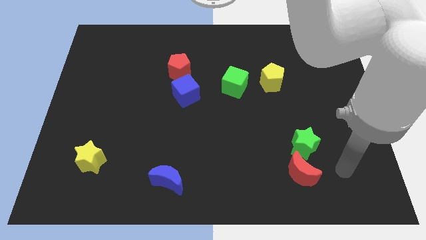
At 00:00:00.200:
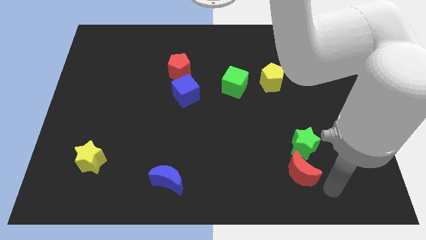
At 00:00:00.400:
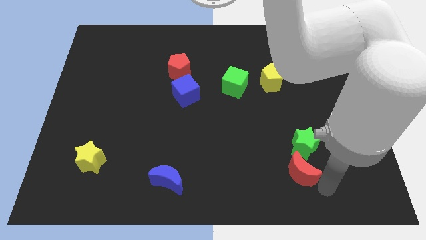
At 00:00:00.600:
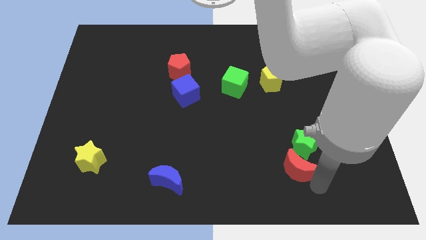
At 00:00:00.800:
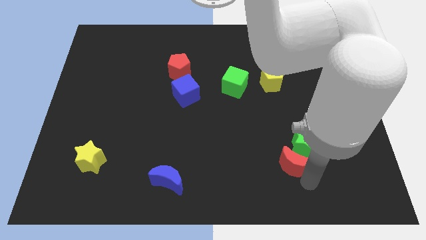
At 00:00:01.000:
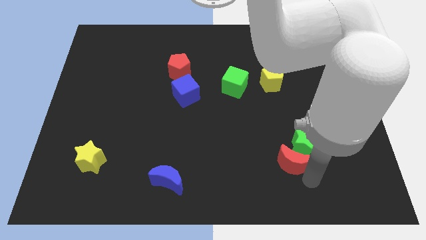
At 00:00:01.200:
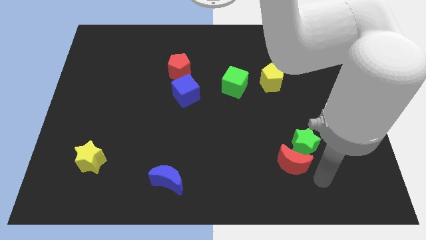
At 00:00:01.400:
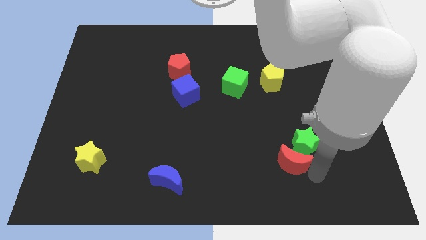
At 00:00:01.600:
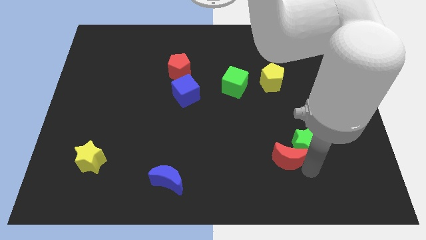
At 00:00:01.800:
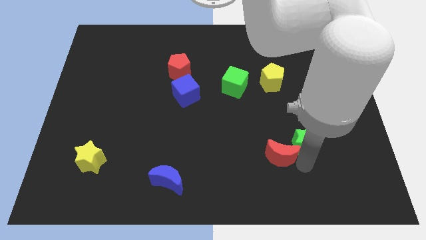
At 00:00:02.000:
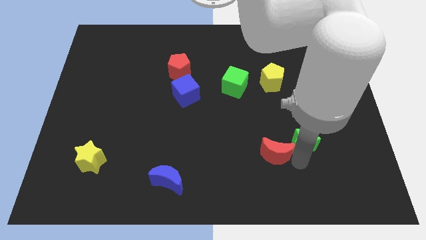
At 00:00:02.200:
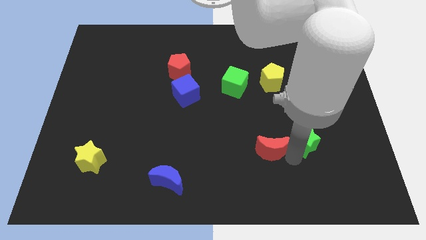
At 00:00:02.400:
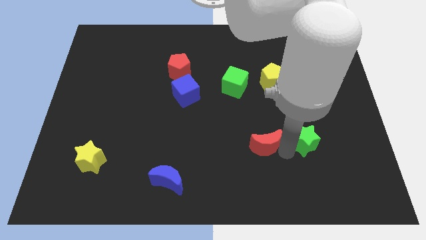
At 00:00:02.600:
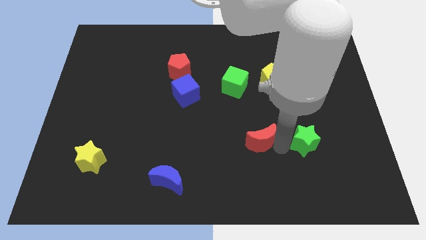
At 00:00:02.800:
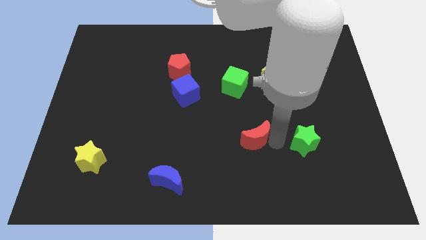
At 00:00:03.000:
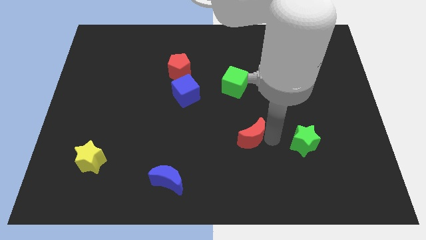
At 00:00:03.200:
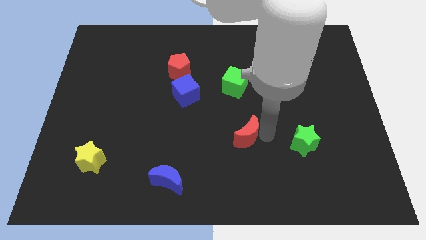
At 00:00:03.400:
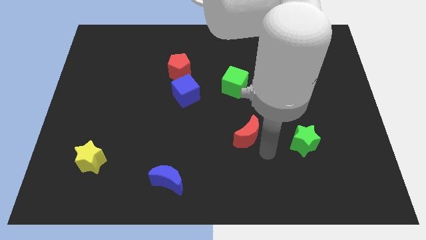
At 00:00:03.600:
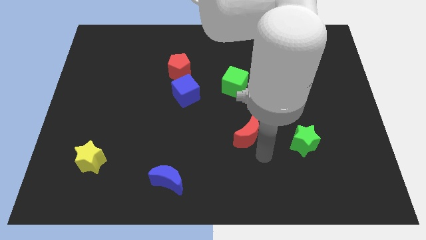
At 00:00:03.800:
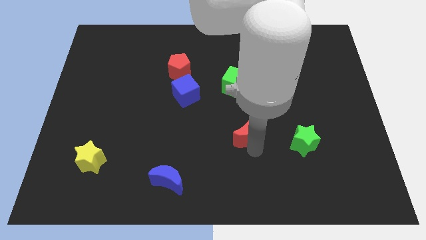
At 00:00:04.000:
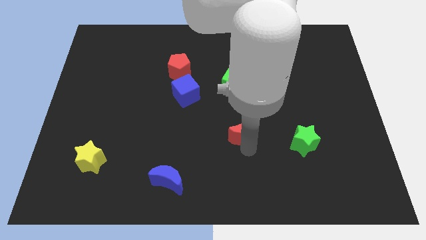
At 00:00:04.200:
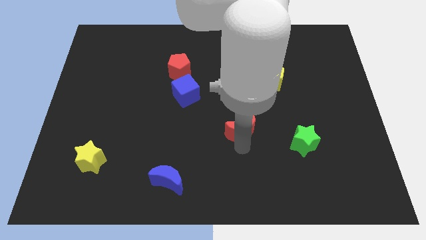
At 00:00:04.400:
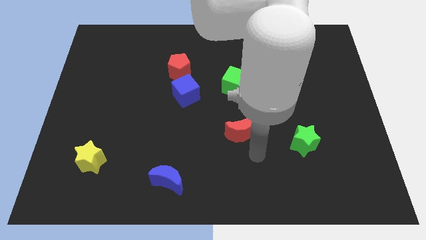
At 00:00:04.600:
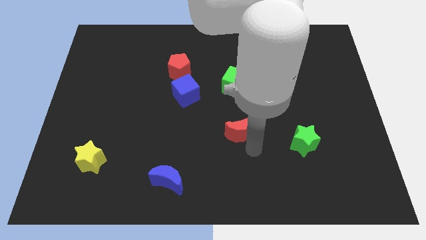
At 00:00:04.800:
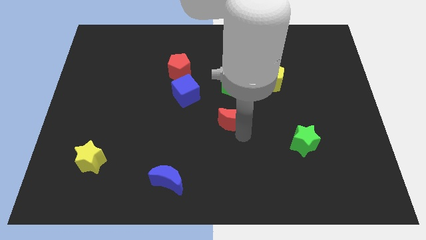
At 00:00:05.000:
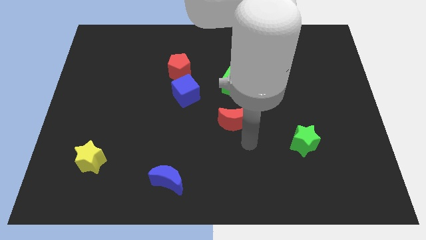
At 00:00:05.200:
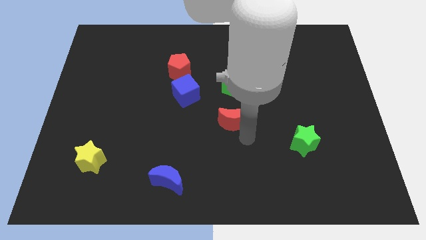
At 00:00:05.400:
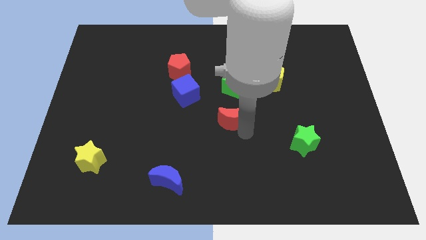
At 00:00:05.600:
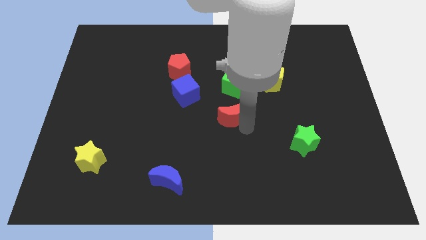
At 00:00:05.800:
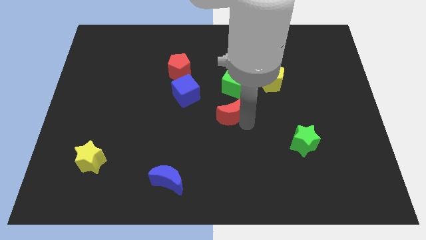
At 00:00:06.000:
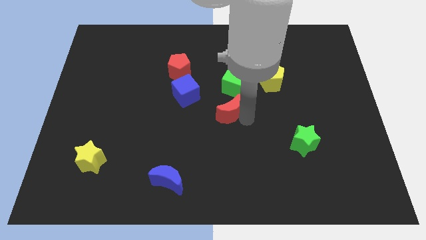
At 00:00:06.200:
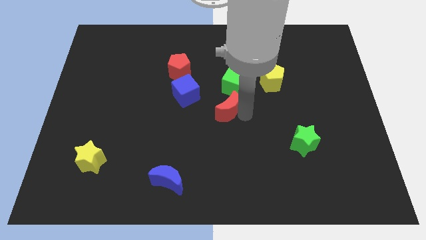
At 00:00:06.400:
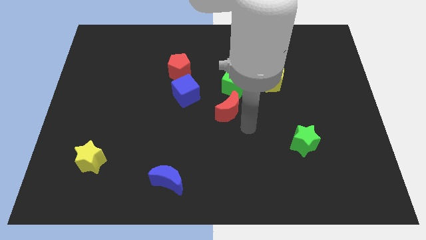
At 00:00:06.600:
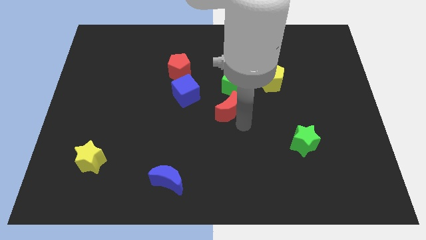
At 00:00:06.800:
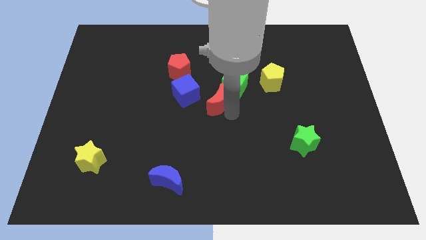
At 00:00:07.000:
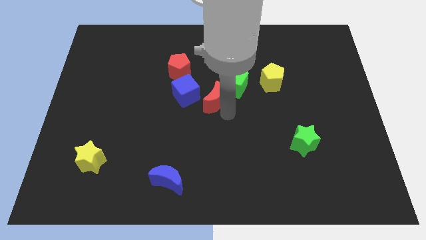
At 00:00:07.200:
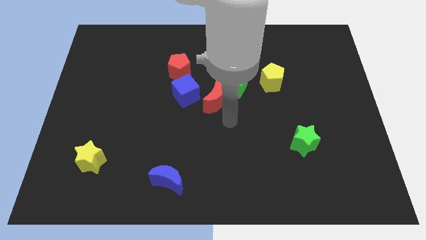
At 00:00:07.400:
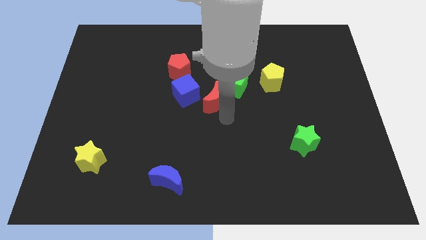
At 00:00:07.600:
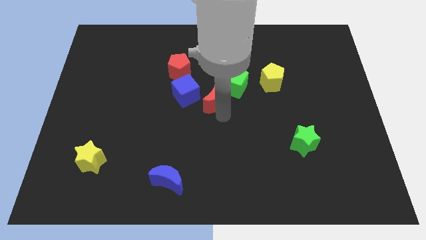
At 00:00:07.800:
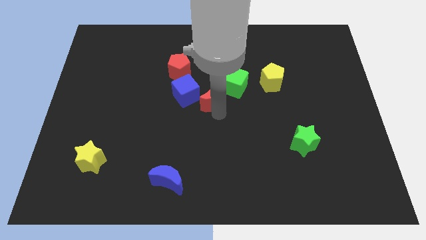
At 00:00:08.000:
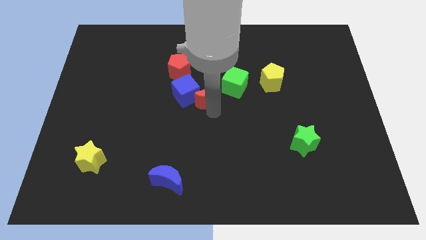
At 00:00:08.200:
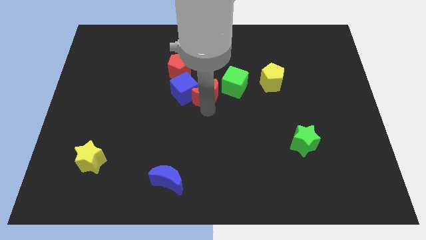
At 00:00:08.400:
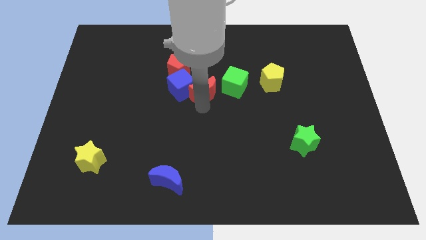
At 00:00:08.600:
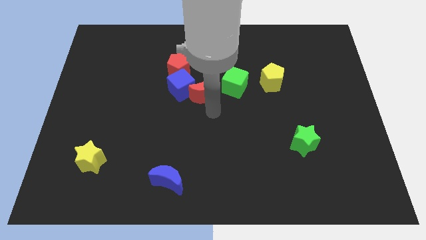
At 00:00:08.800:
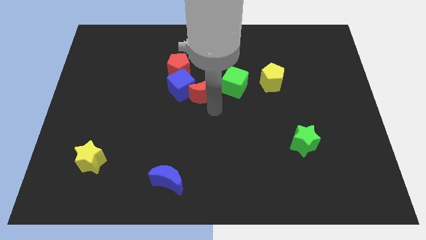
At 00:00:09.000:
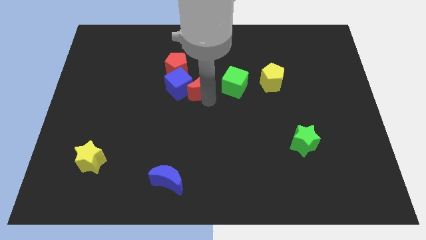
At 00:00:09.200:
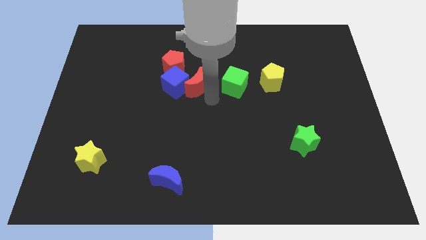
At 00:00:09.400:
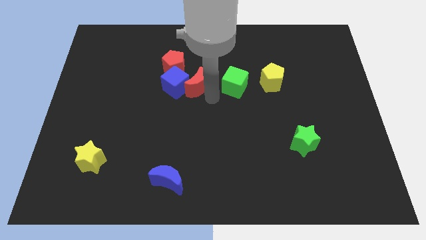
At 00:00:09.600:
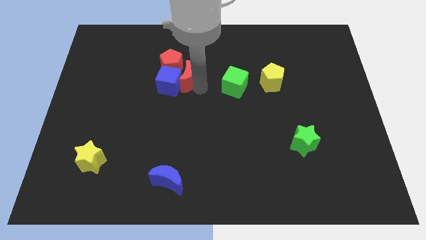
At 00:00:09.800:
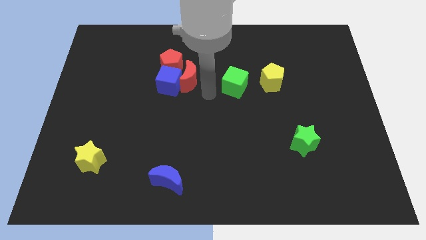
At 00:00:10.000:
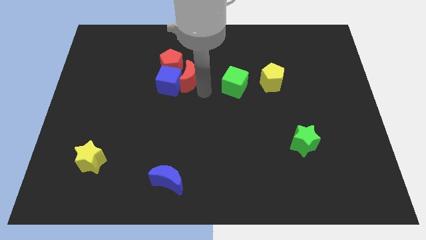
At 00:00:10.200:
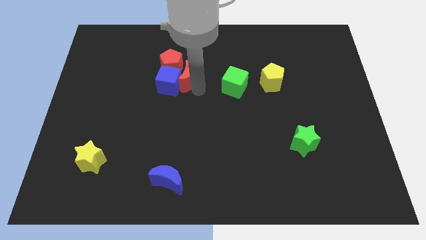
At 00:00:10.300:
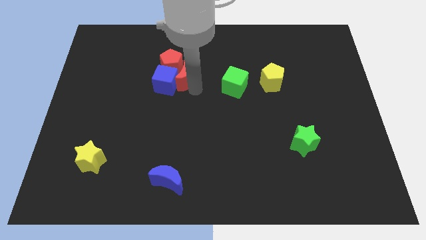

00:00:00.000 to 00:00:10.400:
move the red moon next to the red pentagon

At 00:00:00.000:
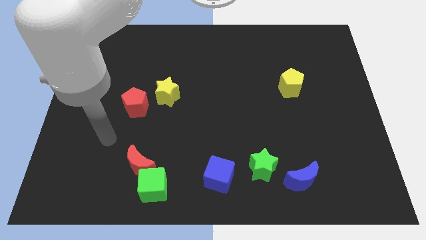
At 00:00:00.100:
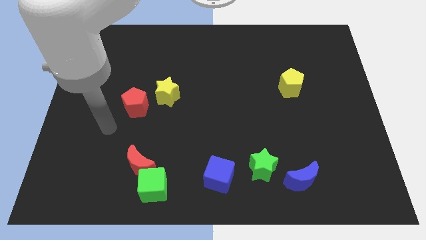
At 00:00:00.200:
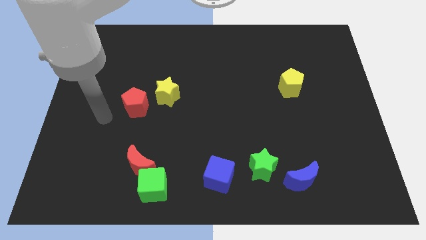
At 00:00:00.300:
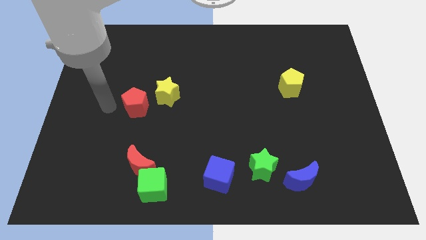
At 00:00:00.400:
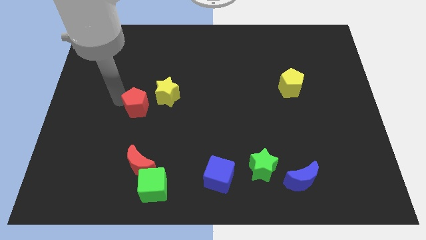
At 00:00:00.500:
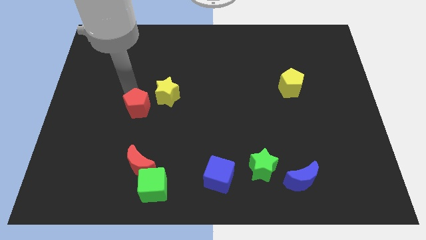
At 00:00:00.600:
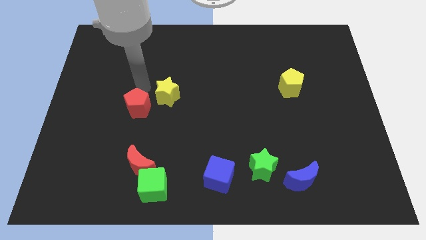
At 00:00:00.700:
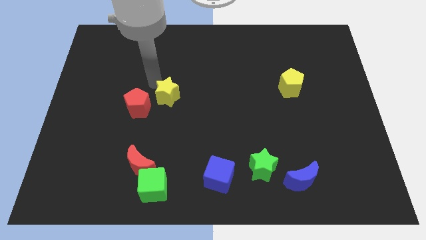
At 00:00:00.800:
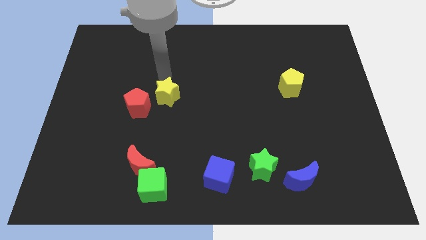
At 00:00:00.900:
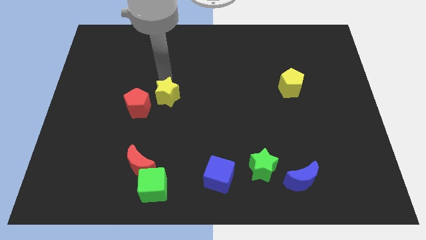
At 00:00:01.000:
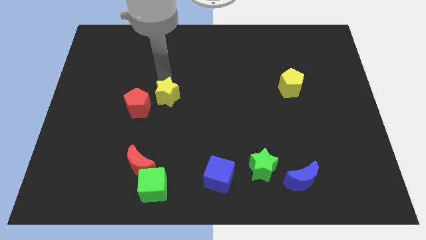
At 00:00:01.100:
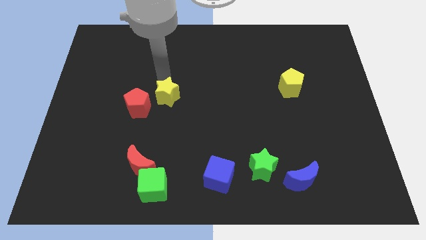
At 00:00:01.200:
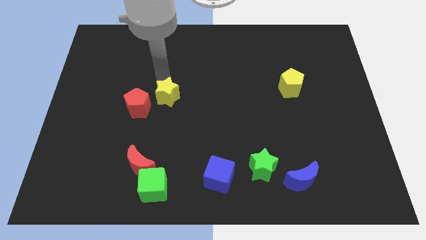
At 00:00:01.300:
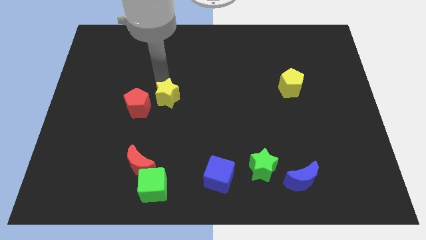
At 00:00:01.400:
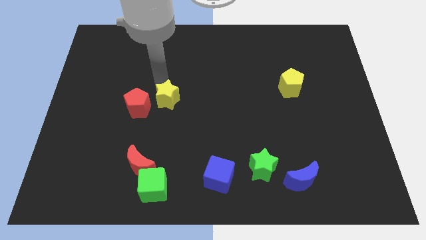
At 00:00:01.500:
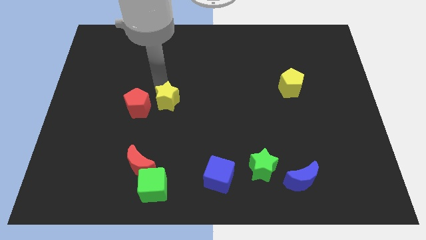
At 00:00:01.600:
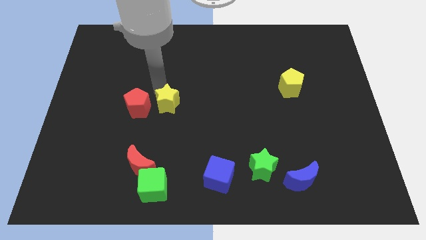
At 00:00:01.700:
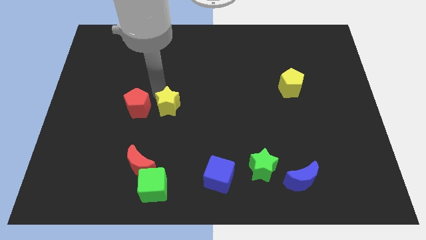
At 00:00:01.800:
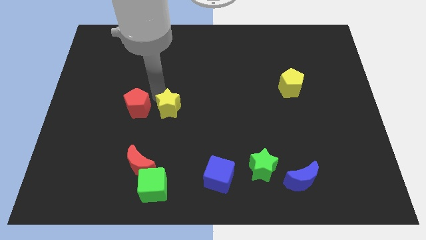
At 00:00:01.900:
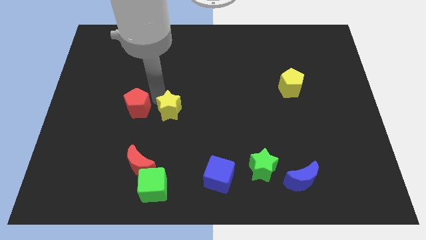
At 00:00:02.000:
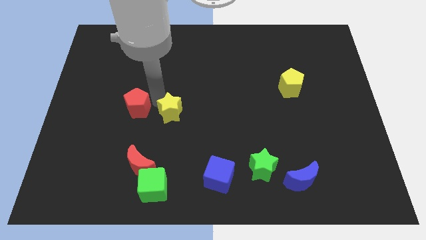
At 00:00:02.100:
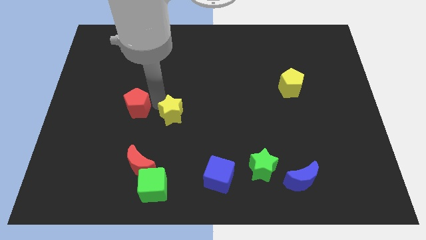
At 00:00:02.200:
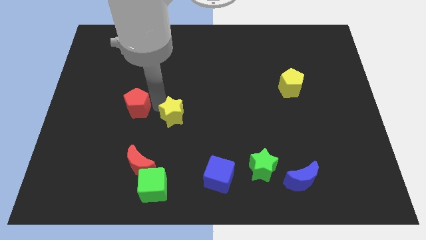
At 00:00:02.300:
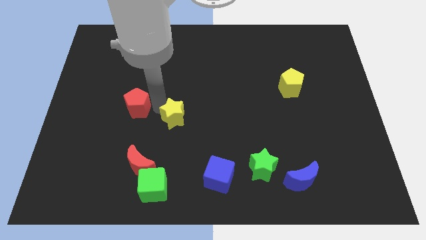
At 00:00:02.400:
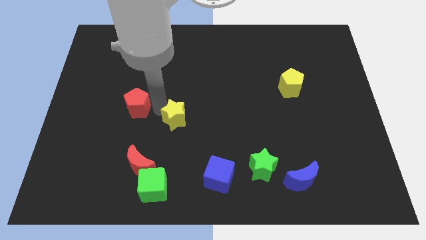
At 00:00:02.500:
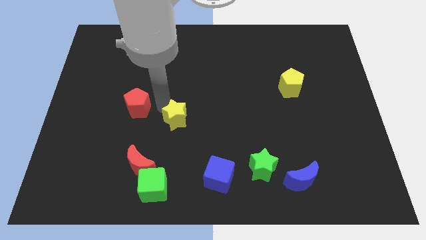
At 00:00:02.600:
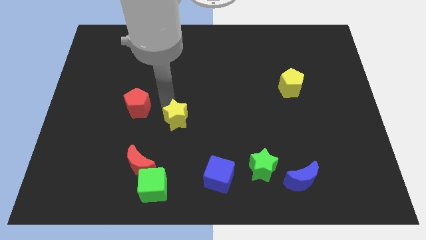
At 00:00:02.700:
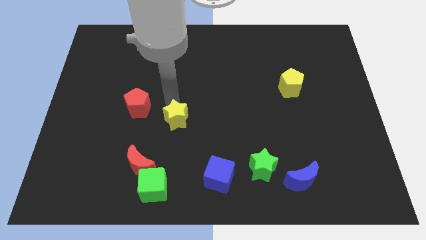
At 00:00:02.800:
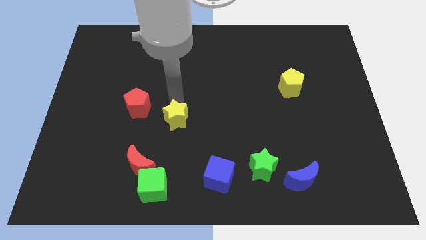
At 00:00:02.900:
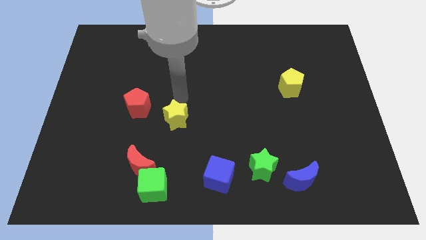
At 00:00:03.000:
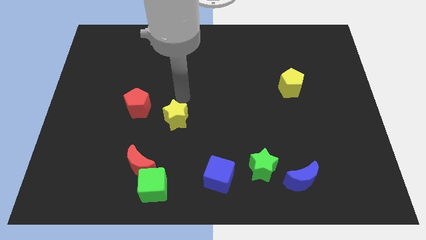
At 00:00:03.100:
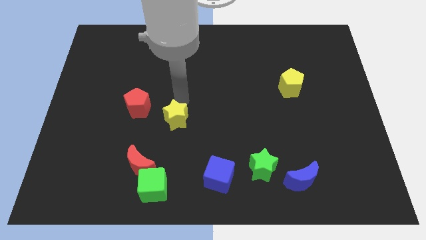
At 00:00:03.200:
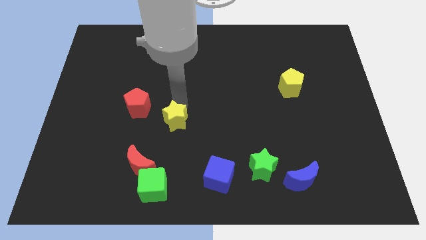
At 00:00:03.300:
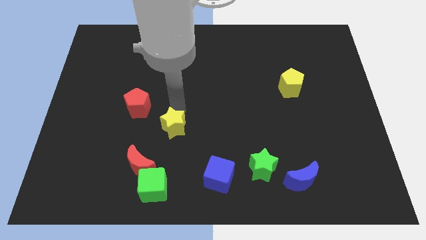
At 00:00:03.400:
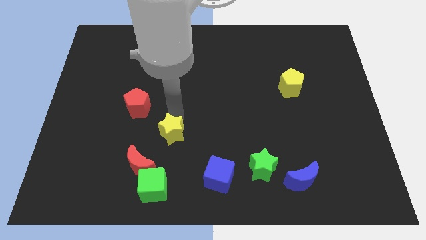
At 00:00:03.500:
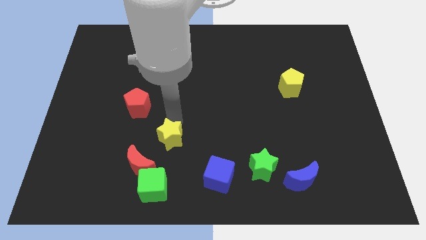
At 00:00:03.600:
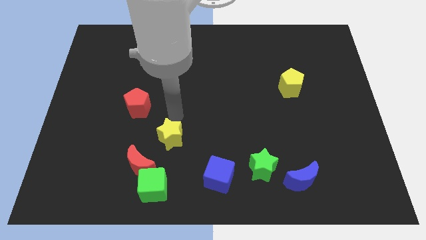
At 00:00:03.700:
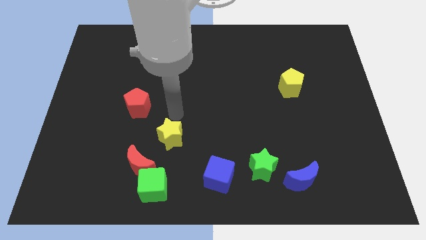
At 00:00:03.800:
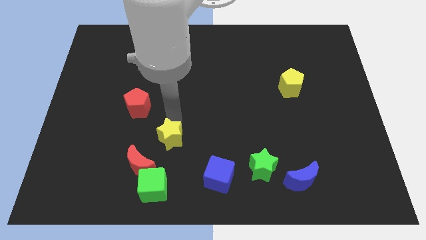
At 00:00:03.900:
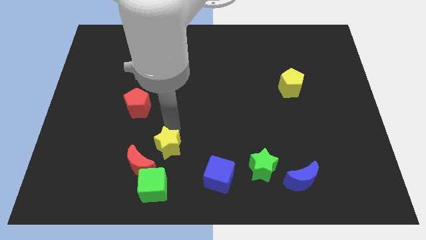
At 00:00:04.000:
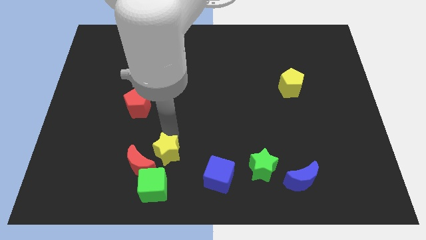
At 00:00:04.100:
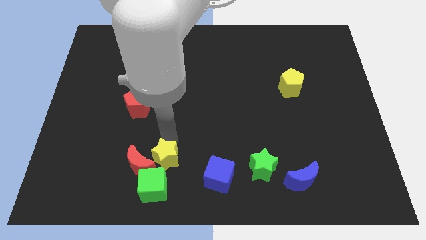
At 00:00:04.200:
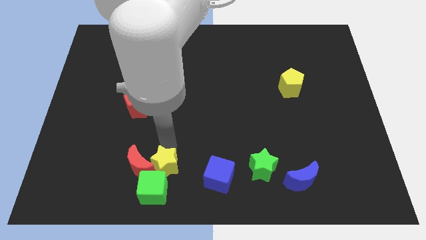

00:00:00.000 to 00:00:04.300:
slide the yellow star close to the green cube
